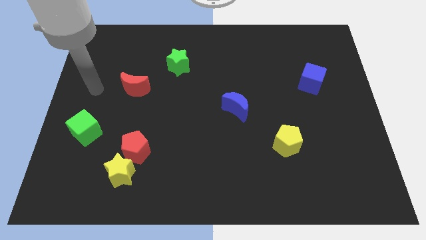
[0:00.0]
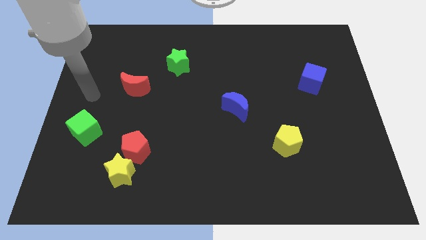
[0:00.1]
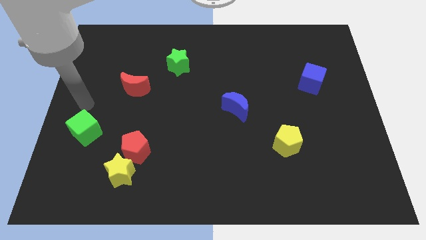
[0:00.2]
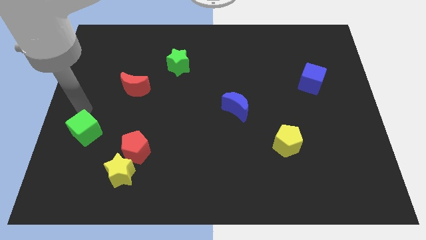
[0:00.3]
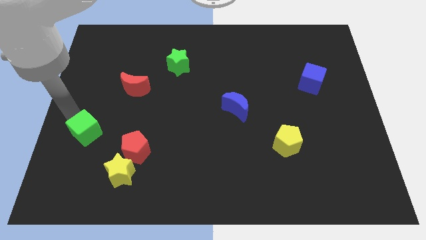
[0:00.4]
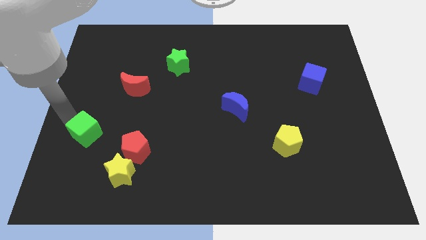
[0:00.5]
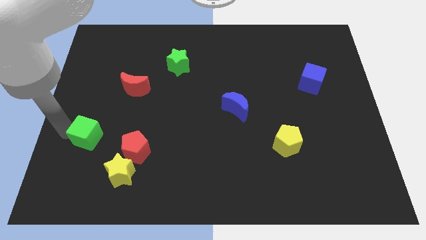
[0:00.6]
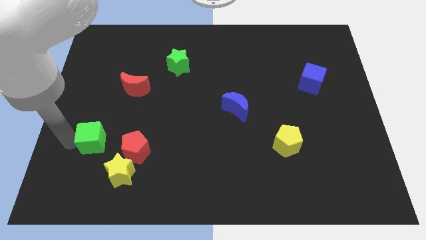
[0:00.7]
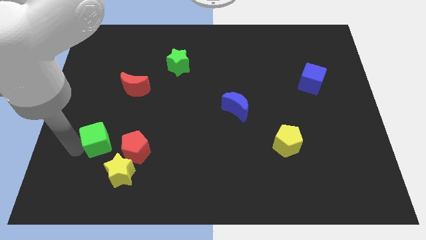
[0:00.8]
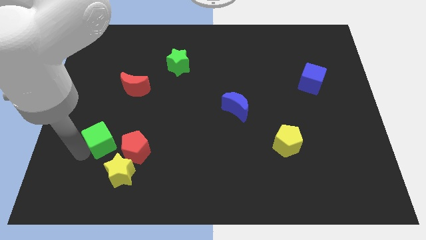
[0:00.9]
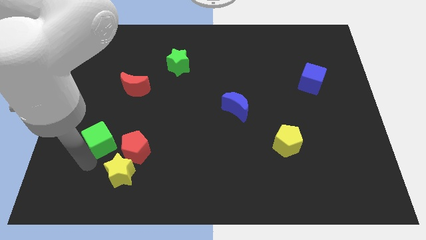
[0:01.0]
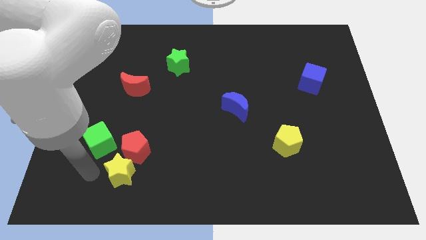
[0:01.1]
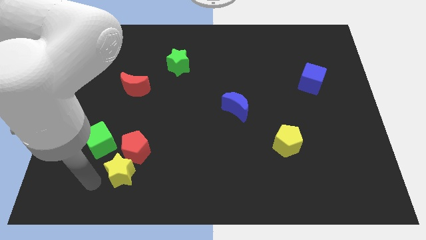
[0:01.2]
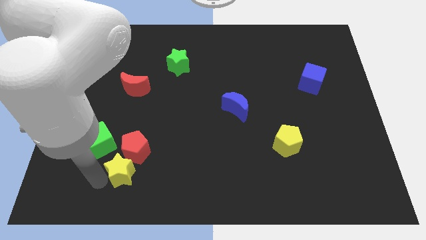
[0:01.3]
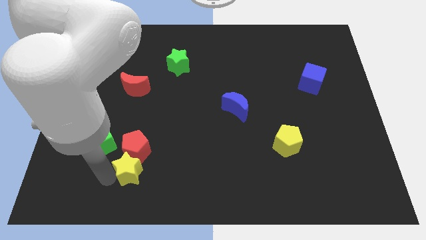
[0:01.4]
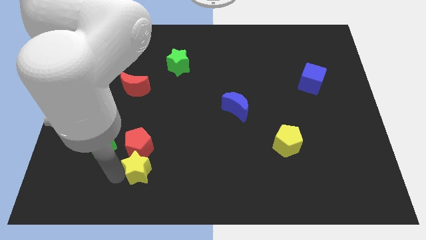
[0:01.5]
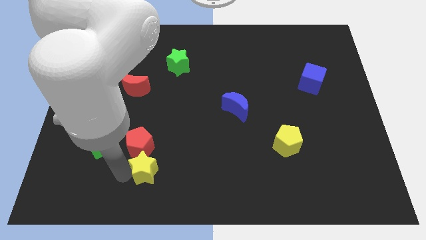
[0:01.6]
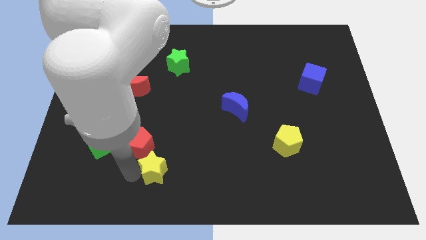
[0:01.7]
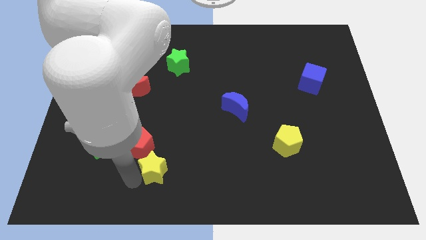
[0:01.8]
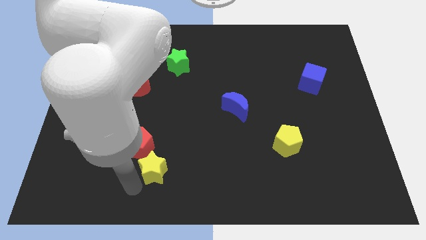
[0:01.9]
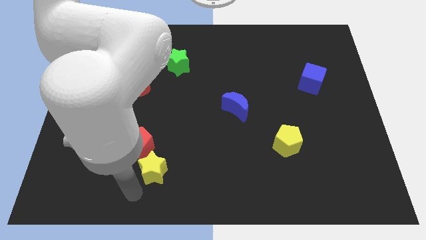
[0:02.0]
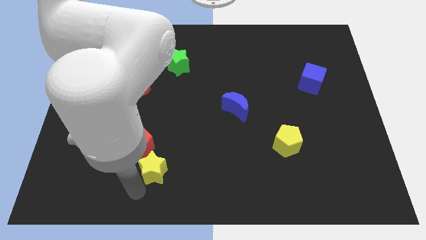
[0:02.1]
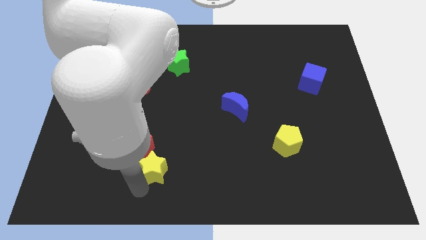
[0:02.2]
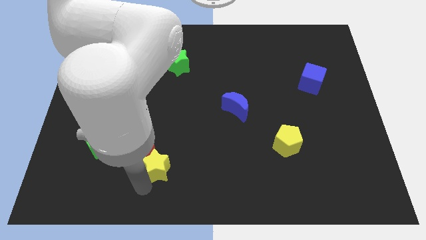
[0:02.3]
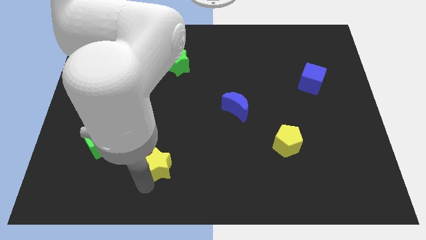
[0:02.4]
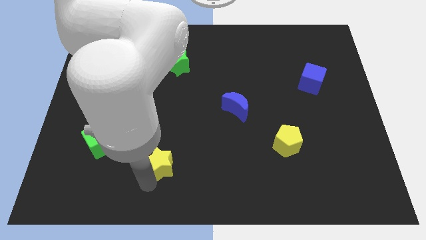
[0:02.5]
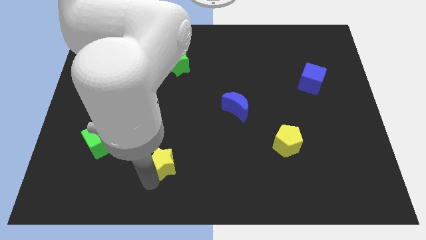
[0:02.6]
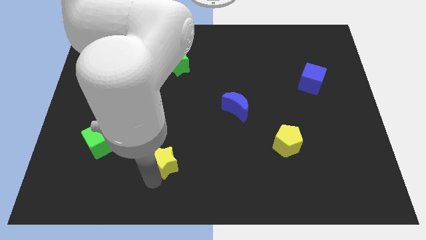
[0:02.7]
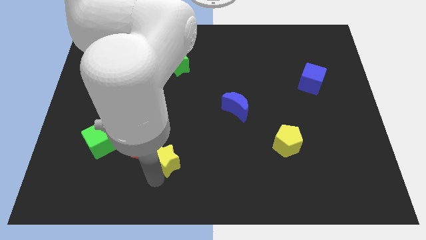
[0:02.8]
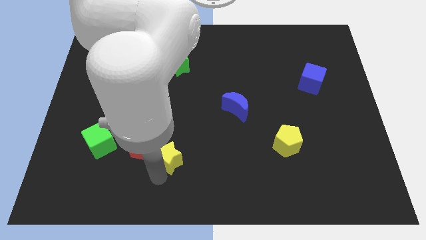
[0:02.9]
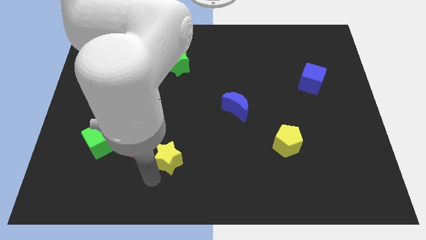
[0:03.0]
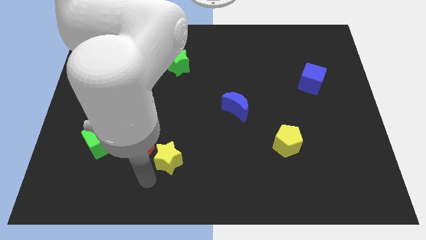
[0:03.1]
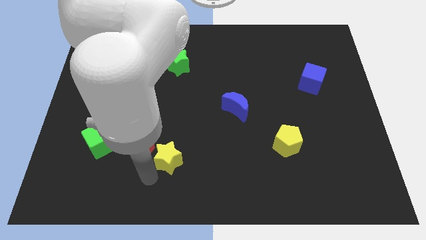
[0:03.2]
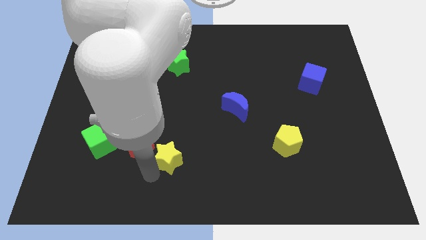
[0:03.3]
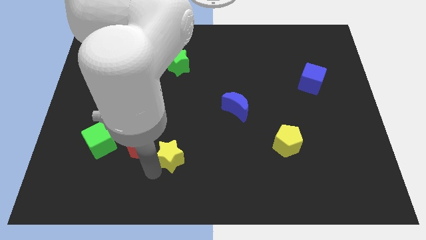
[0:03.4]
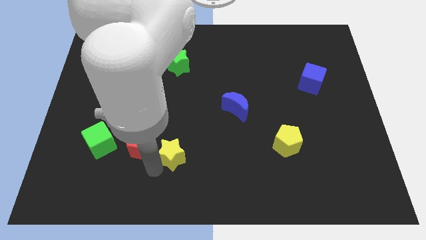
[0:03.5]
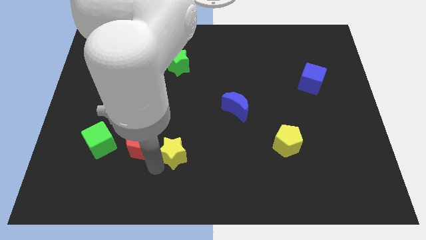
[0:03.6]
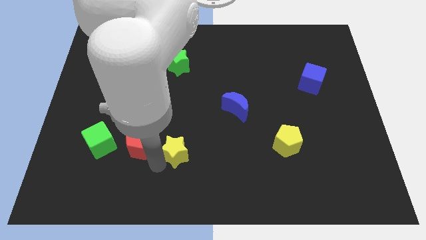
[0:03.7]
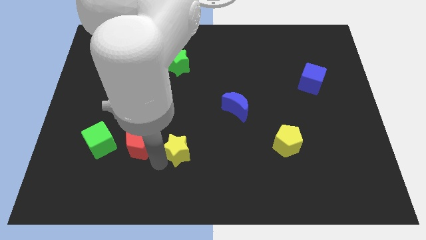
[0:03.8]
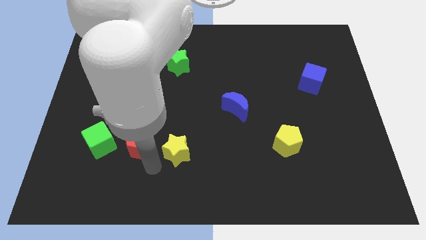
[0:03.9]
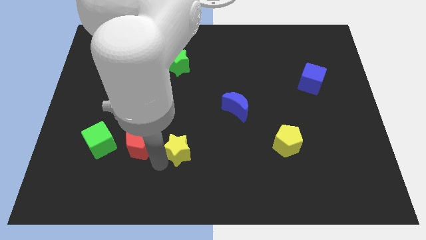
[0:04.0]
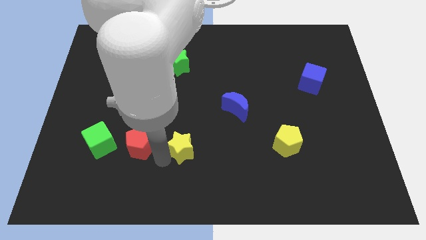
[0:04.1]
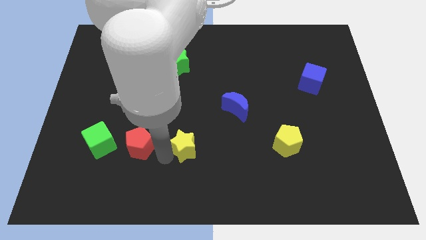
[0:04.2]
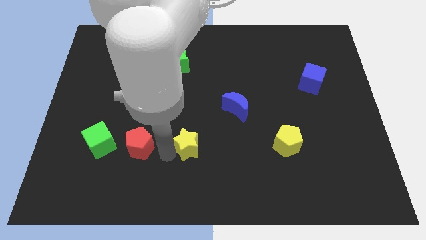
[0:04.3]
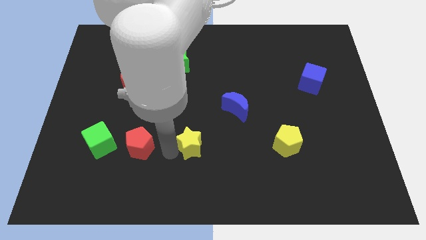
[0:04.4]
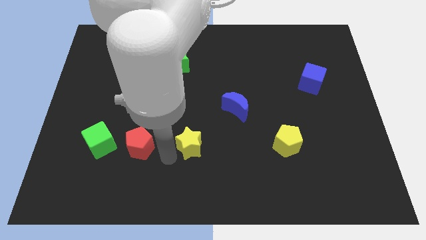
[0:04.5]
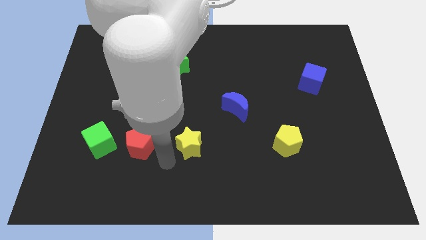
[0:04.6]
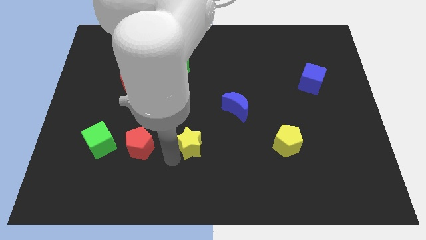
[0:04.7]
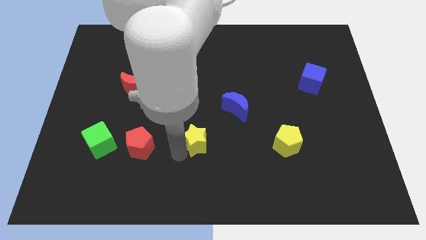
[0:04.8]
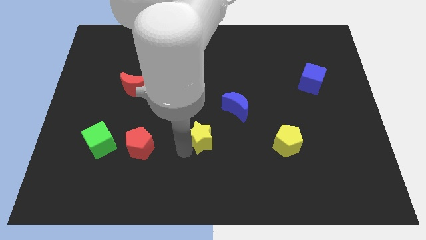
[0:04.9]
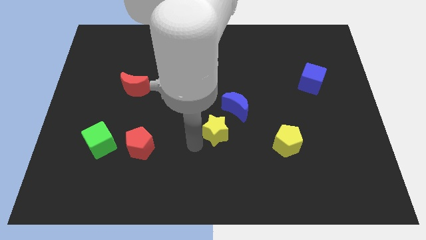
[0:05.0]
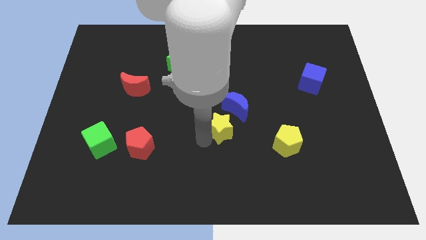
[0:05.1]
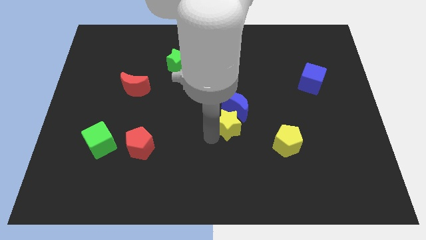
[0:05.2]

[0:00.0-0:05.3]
put the yellow star towards the blue moon

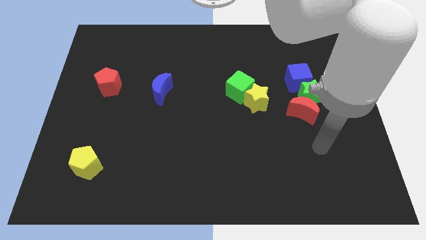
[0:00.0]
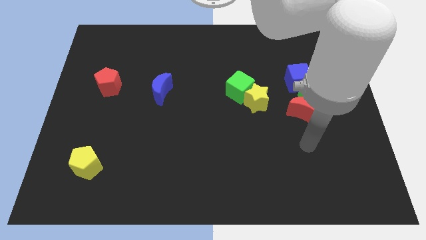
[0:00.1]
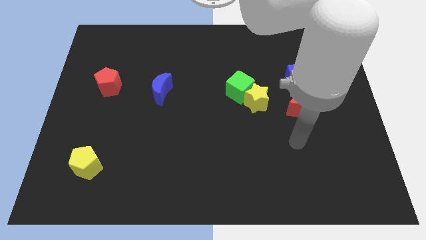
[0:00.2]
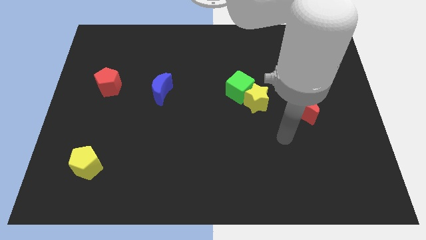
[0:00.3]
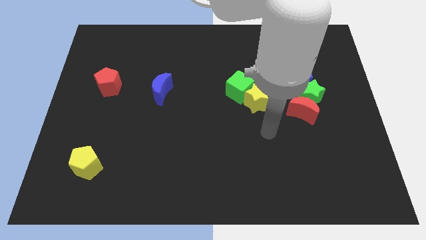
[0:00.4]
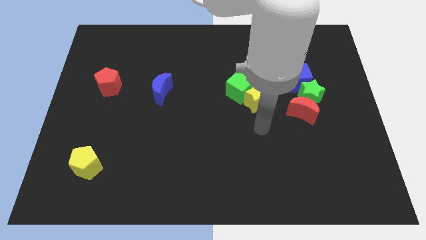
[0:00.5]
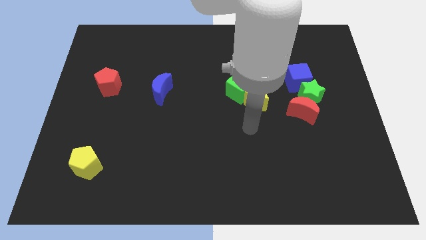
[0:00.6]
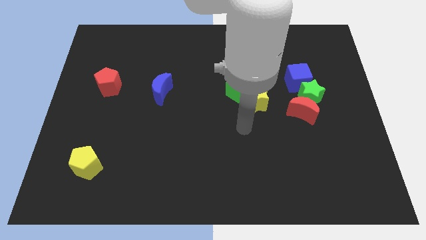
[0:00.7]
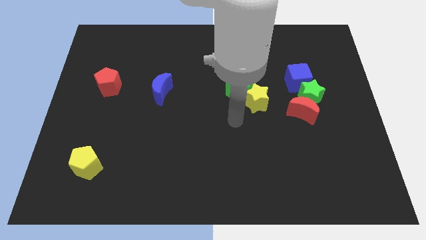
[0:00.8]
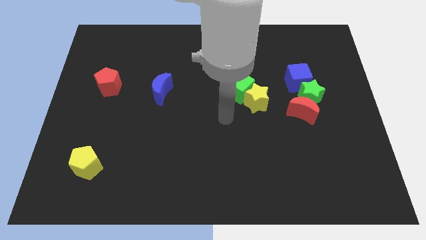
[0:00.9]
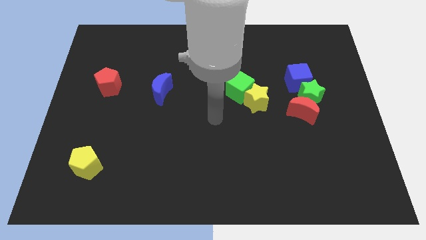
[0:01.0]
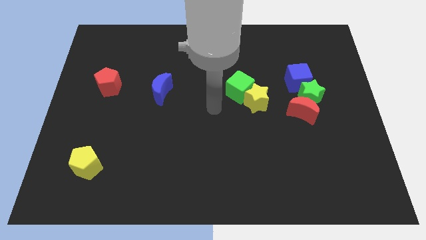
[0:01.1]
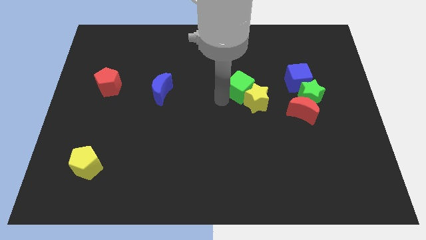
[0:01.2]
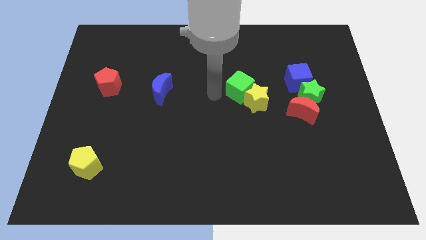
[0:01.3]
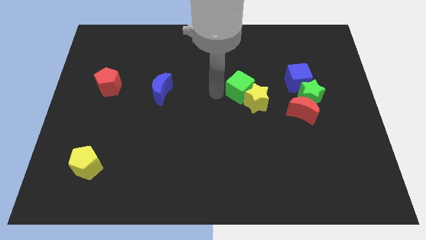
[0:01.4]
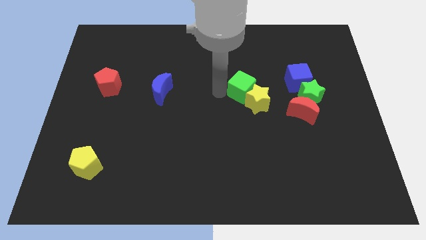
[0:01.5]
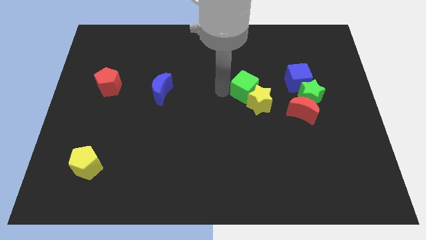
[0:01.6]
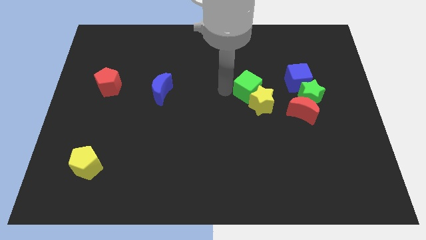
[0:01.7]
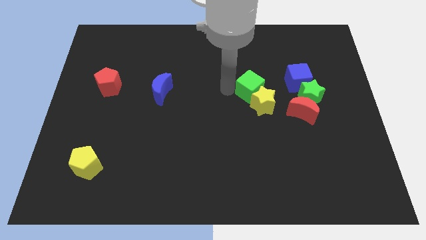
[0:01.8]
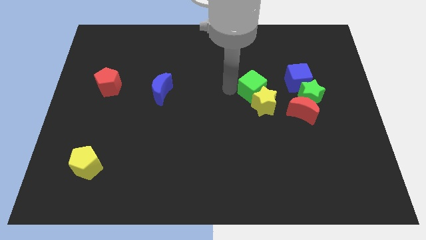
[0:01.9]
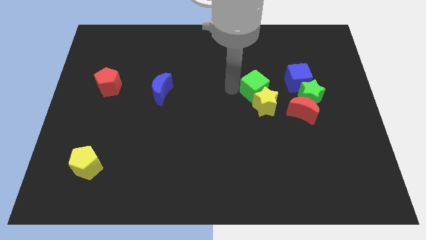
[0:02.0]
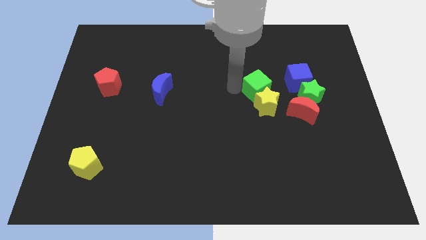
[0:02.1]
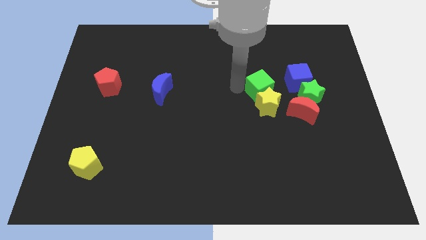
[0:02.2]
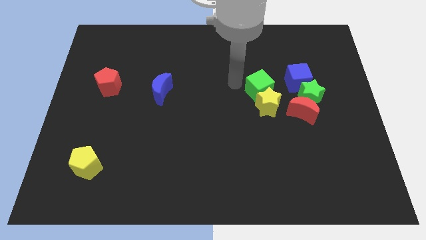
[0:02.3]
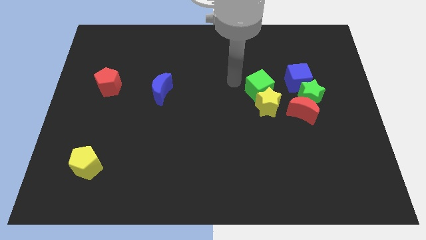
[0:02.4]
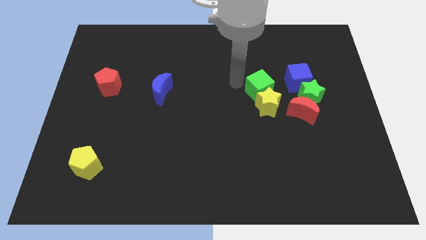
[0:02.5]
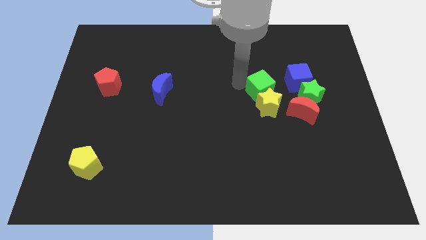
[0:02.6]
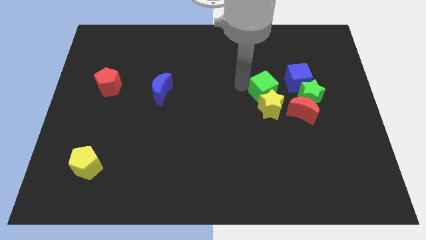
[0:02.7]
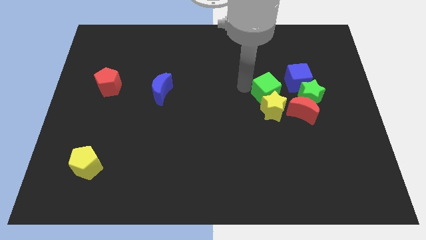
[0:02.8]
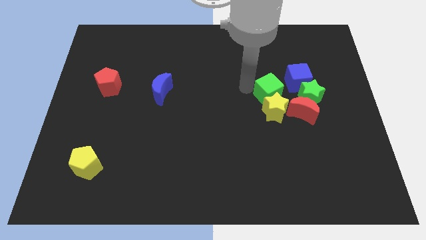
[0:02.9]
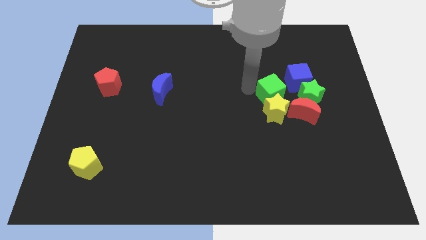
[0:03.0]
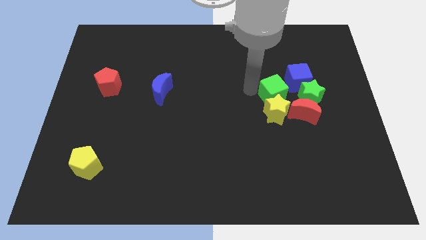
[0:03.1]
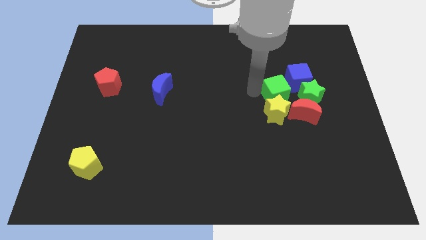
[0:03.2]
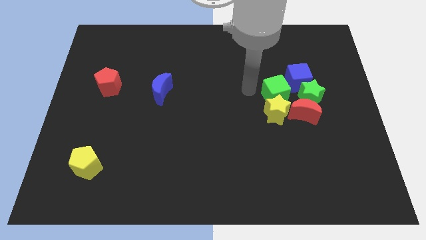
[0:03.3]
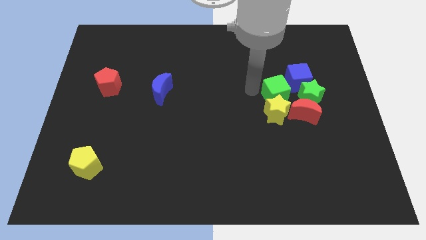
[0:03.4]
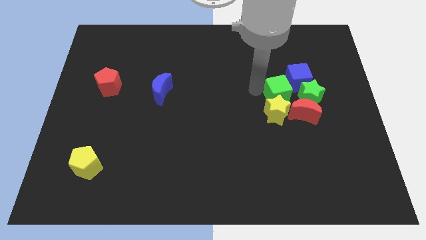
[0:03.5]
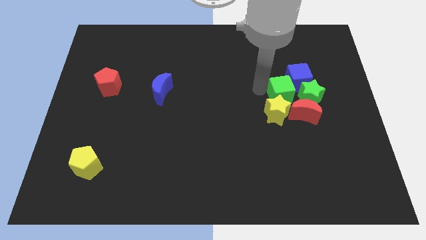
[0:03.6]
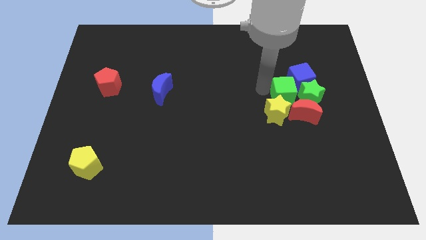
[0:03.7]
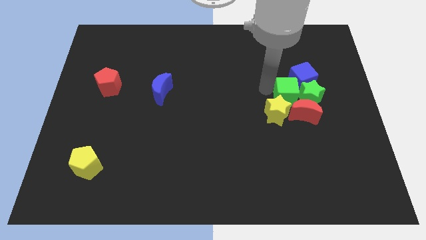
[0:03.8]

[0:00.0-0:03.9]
push the green cube close to the green star
